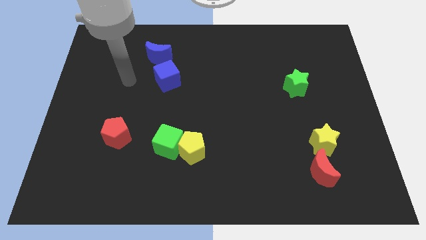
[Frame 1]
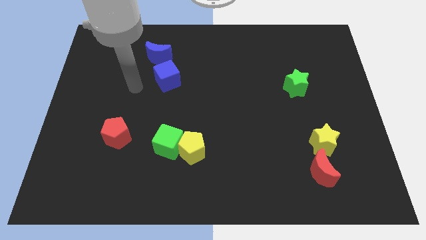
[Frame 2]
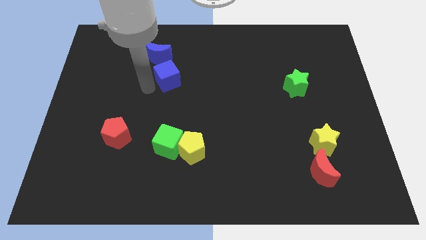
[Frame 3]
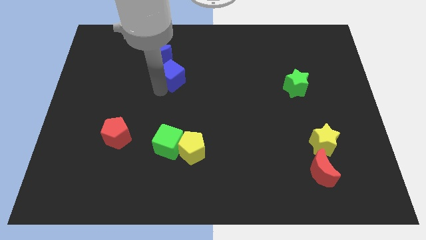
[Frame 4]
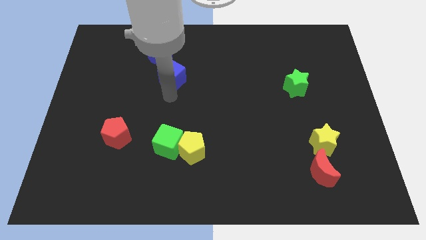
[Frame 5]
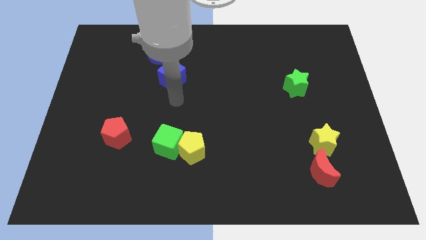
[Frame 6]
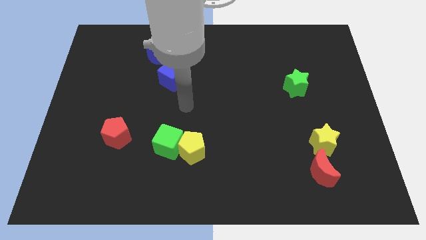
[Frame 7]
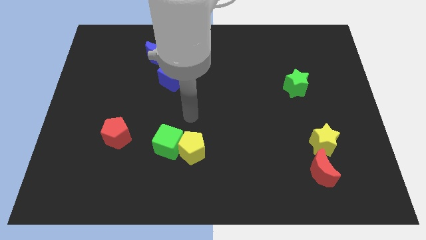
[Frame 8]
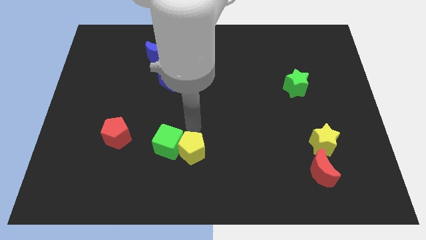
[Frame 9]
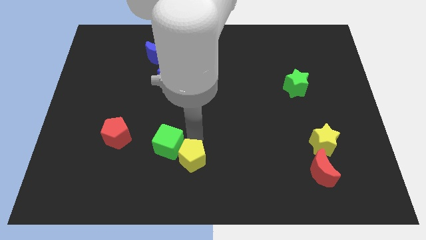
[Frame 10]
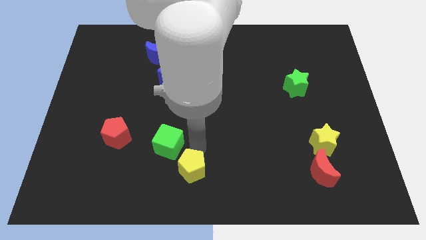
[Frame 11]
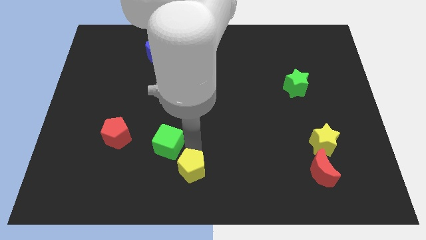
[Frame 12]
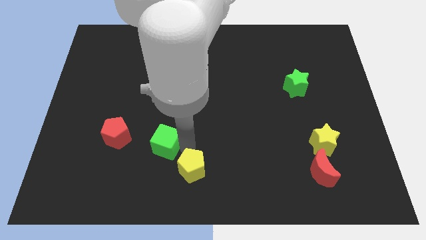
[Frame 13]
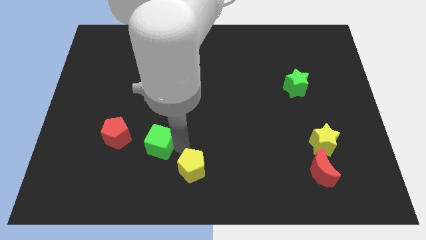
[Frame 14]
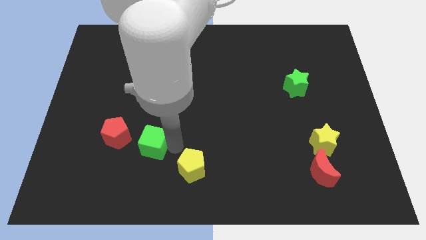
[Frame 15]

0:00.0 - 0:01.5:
pull the green cube apart from the yellow pentagon

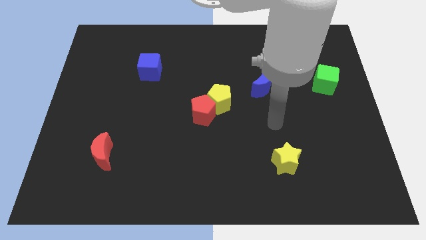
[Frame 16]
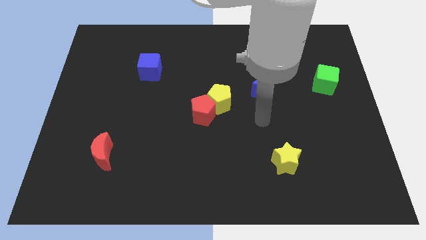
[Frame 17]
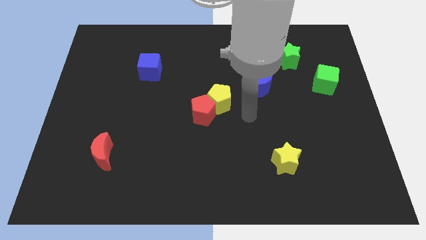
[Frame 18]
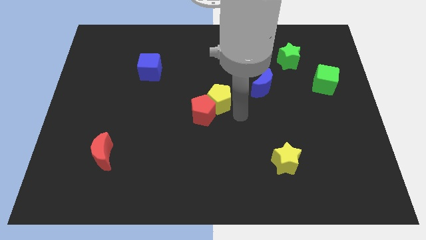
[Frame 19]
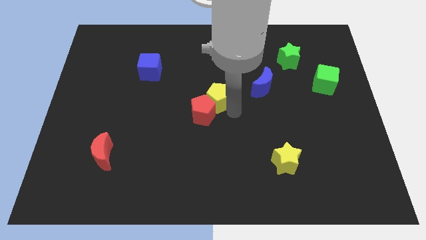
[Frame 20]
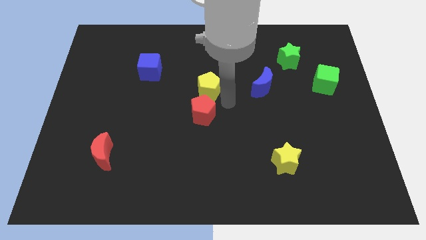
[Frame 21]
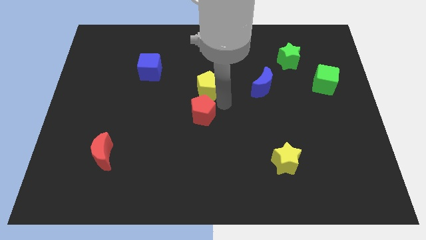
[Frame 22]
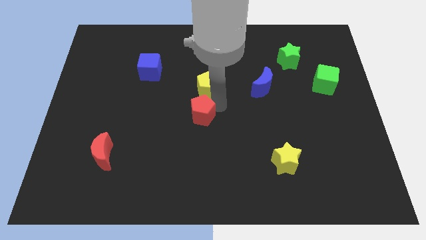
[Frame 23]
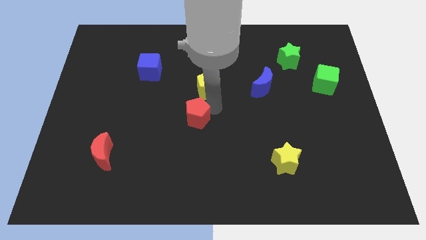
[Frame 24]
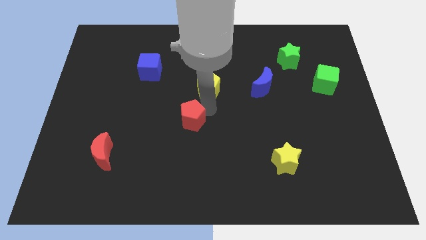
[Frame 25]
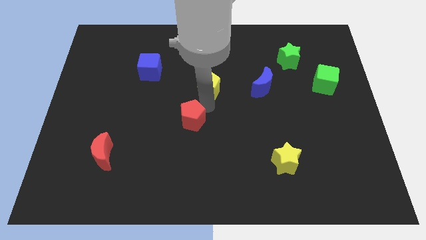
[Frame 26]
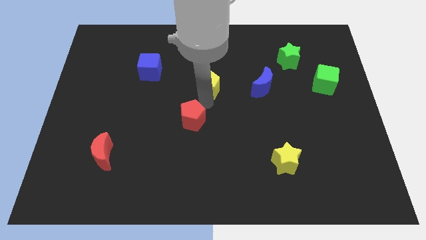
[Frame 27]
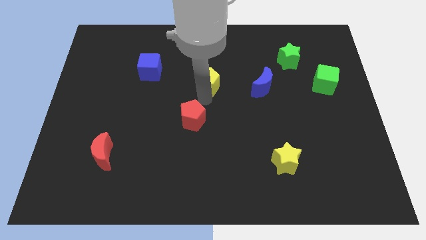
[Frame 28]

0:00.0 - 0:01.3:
separate the red pentagon from the yellow pentagon

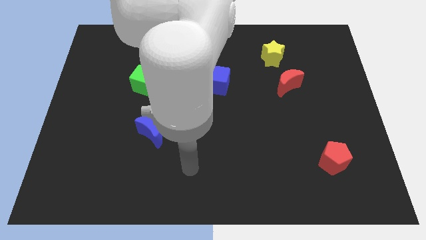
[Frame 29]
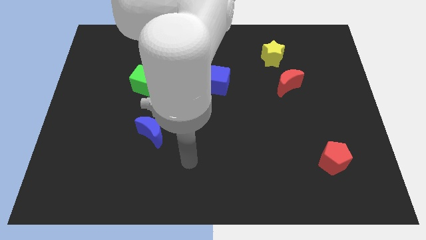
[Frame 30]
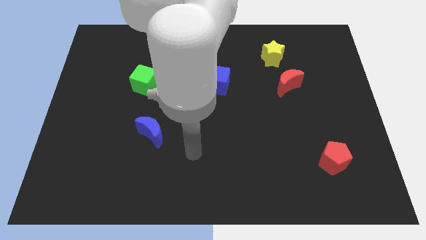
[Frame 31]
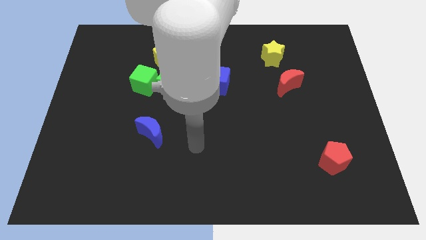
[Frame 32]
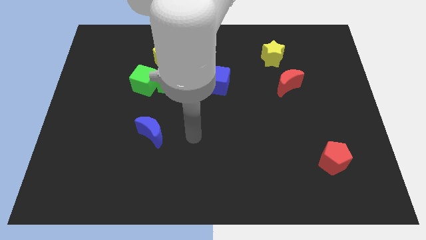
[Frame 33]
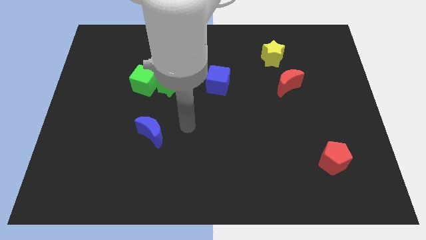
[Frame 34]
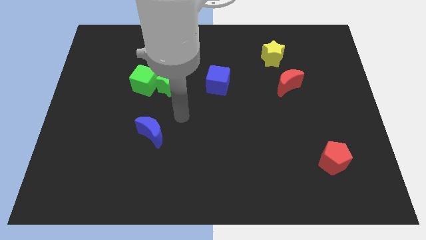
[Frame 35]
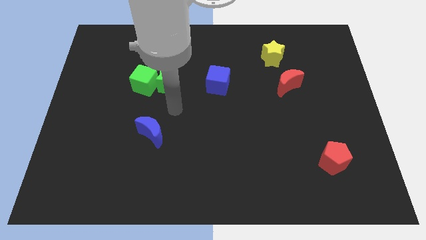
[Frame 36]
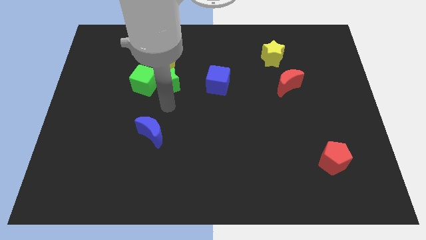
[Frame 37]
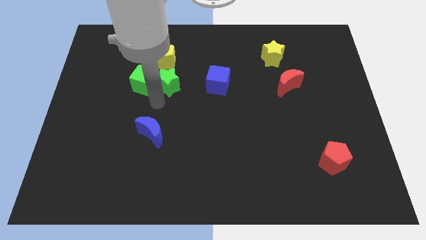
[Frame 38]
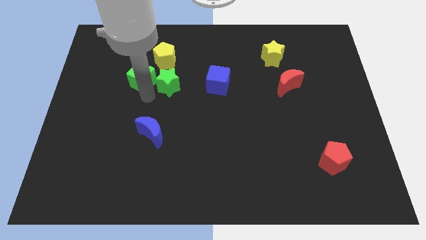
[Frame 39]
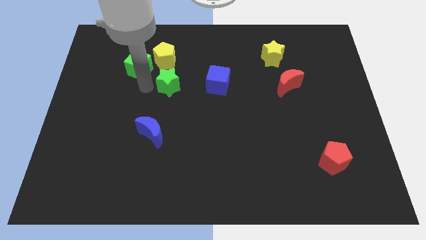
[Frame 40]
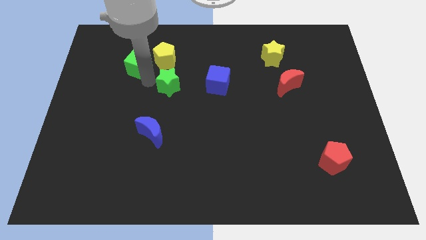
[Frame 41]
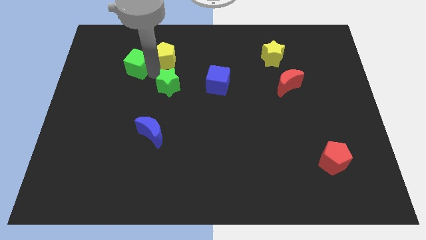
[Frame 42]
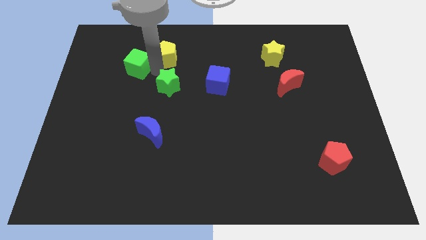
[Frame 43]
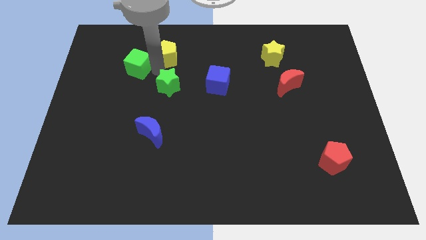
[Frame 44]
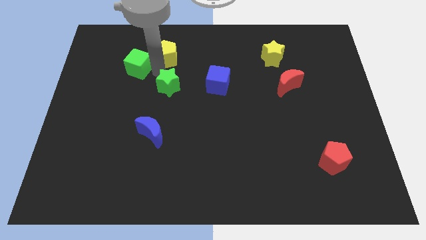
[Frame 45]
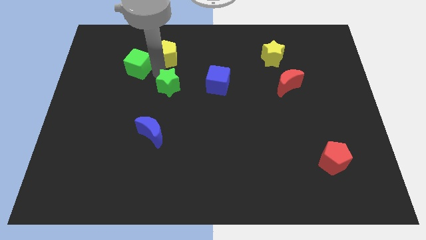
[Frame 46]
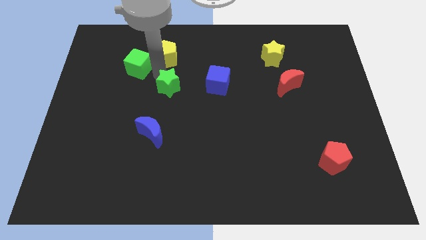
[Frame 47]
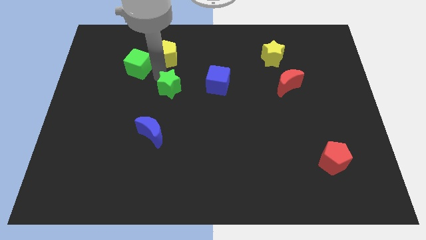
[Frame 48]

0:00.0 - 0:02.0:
separate the green star from the green cube and yellow pentagon

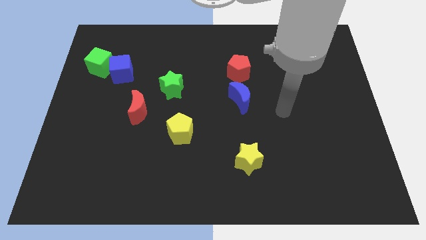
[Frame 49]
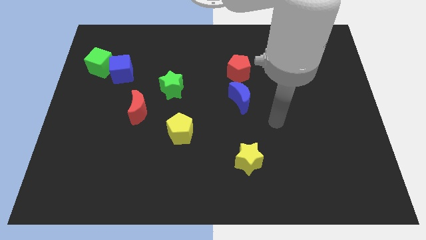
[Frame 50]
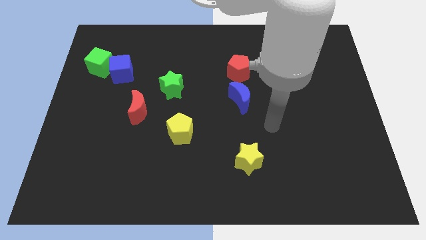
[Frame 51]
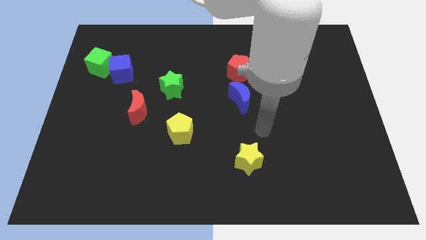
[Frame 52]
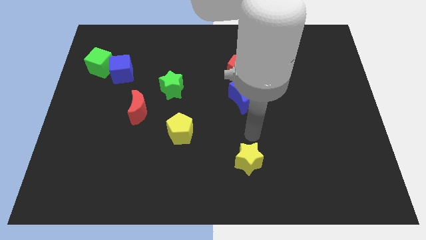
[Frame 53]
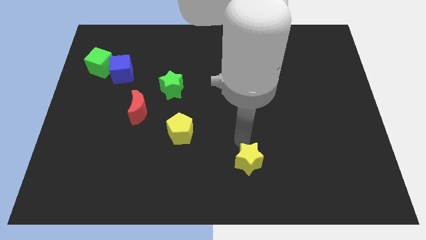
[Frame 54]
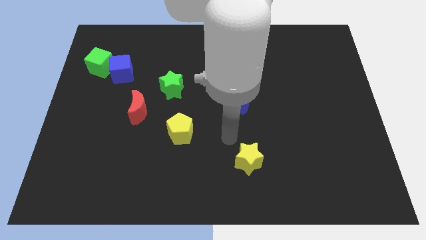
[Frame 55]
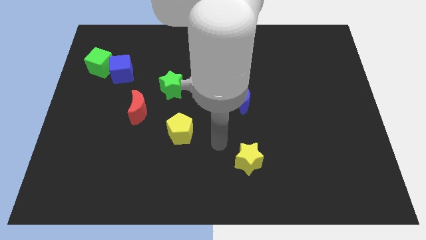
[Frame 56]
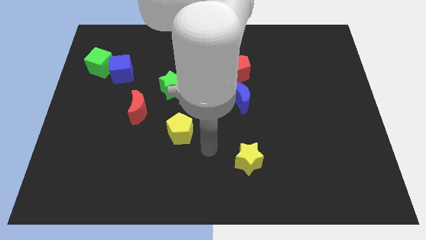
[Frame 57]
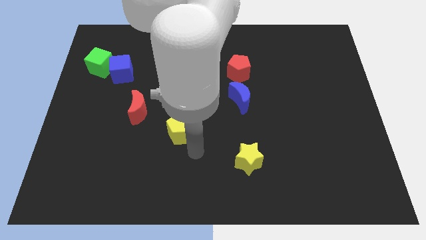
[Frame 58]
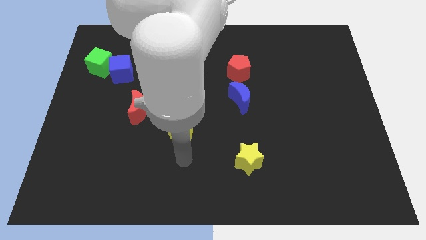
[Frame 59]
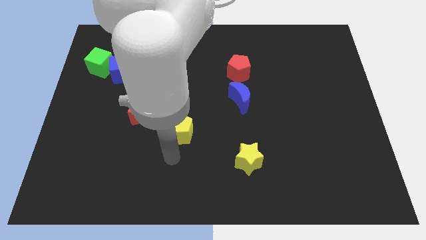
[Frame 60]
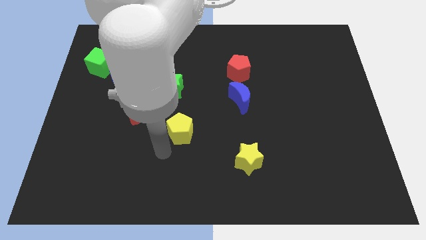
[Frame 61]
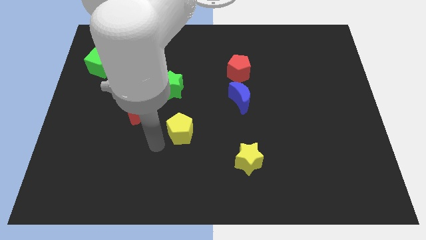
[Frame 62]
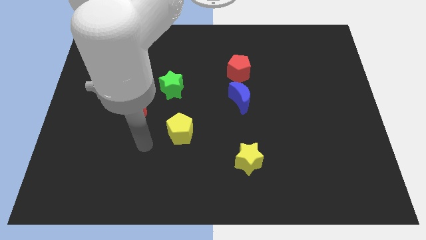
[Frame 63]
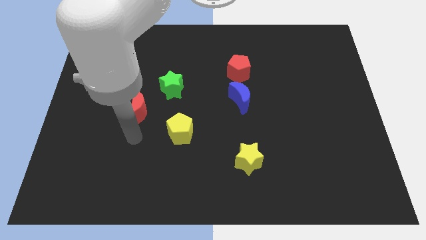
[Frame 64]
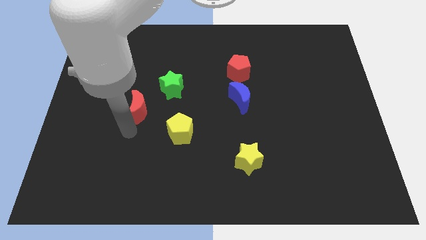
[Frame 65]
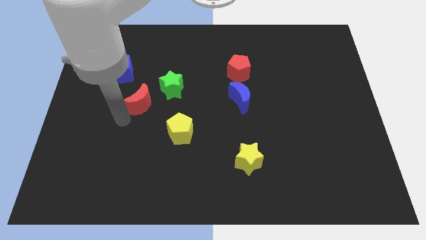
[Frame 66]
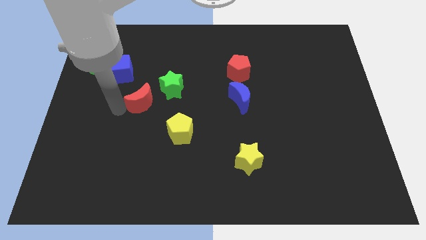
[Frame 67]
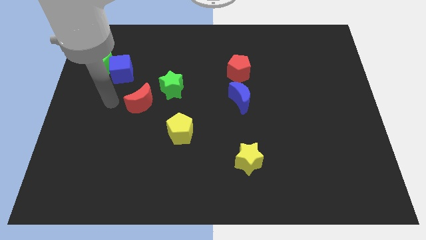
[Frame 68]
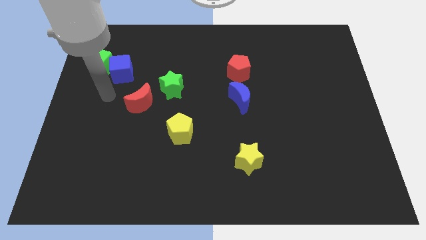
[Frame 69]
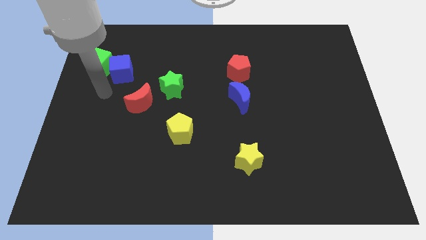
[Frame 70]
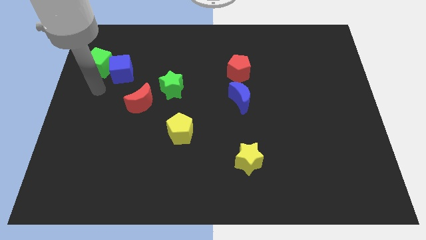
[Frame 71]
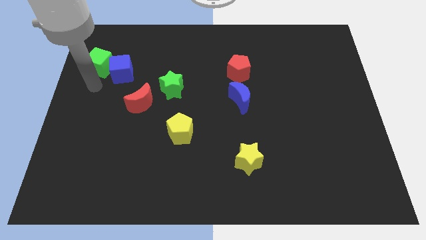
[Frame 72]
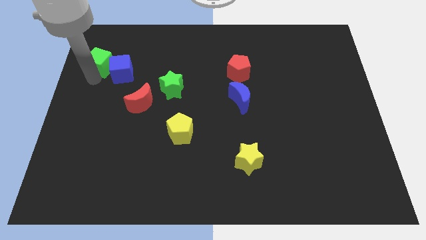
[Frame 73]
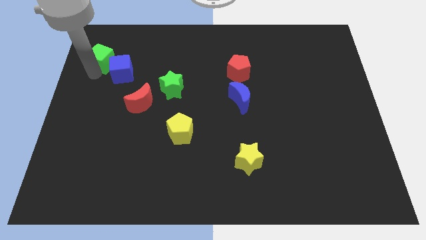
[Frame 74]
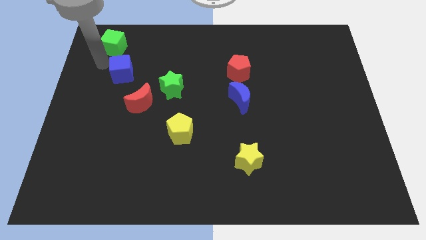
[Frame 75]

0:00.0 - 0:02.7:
pull the blue cube apart from the green cube

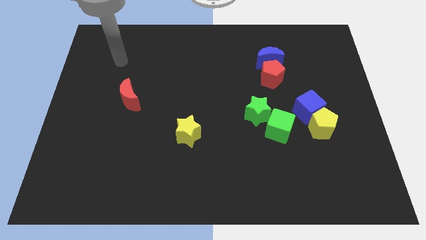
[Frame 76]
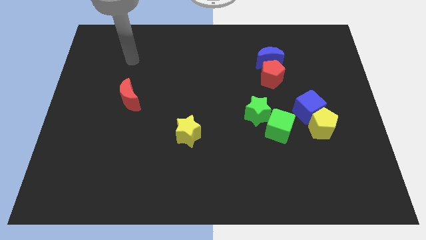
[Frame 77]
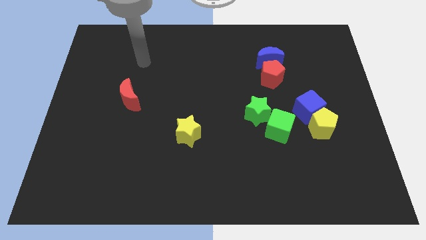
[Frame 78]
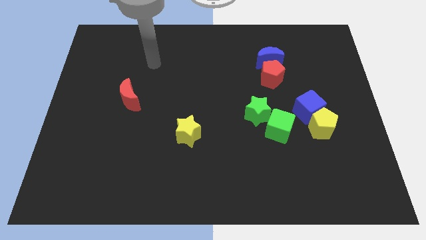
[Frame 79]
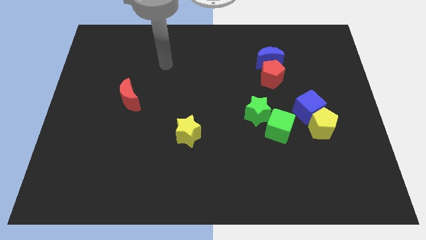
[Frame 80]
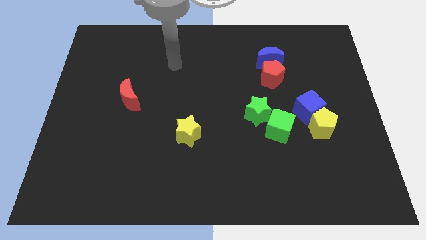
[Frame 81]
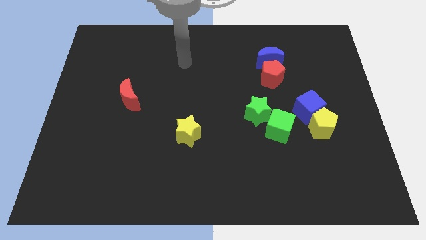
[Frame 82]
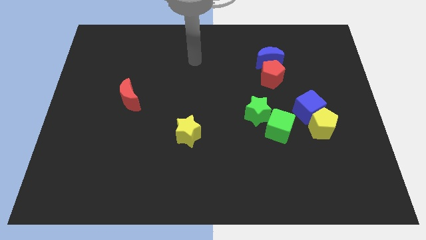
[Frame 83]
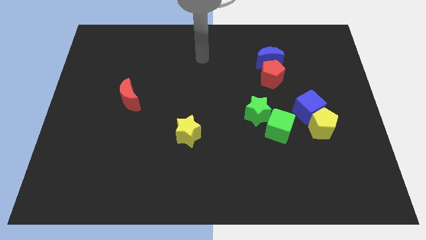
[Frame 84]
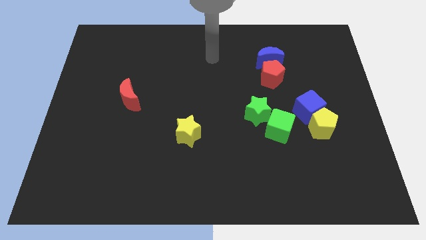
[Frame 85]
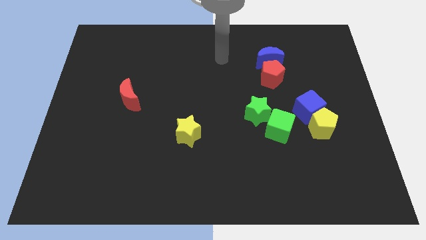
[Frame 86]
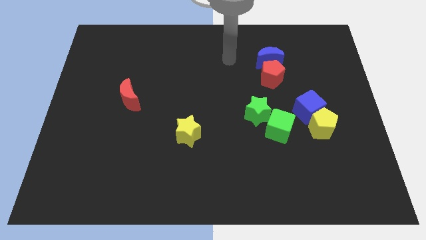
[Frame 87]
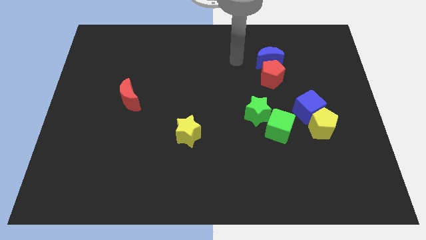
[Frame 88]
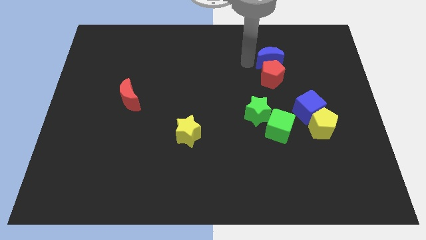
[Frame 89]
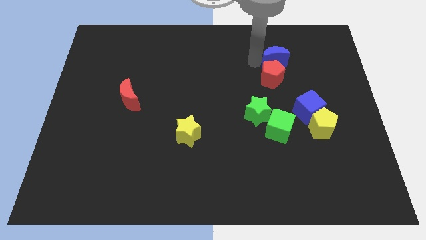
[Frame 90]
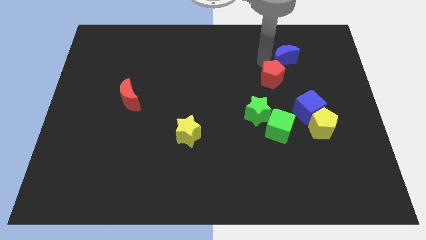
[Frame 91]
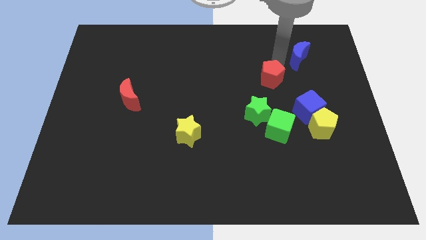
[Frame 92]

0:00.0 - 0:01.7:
pull the red pentagon apart from the blue moon

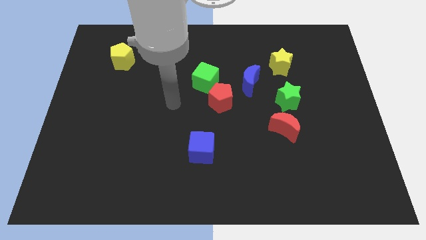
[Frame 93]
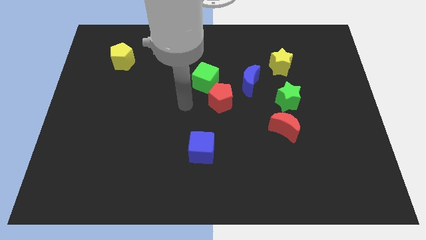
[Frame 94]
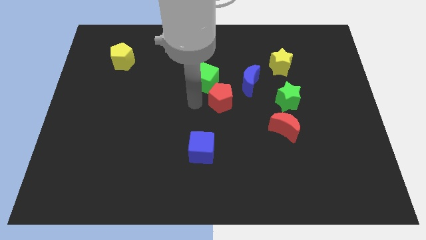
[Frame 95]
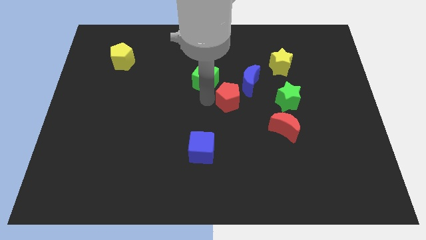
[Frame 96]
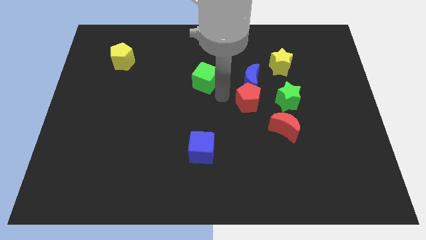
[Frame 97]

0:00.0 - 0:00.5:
move the green cube away from the red pentagon
